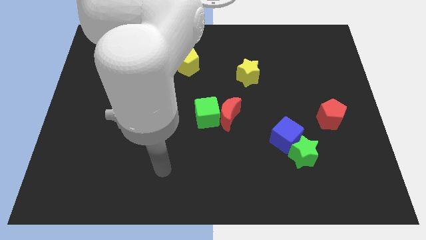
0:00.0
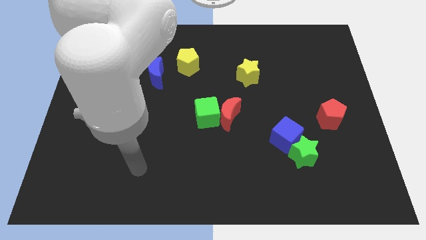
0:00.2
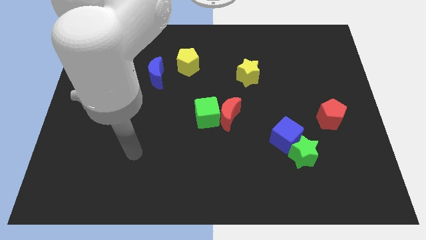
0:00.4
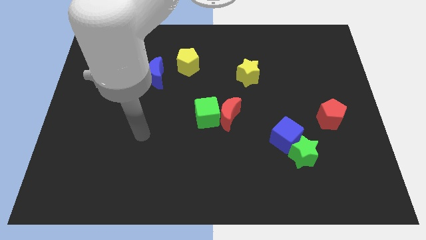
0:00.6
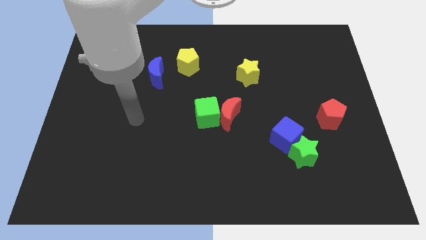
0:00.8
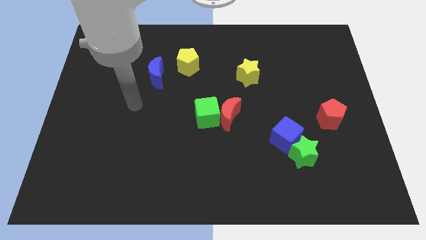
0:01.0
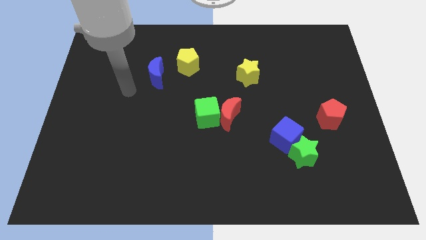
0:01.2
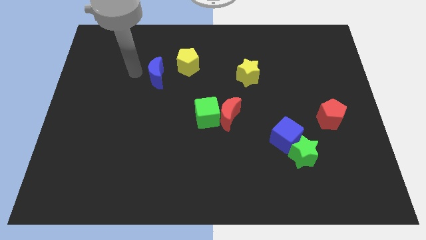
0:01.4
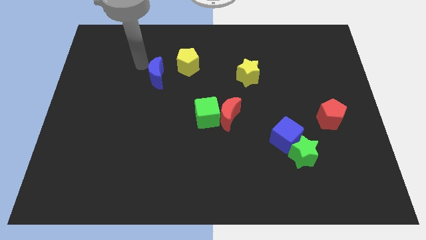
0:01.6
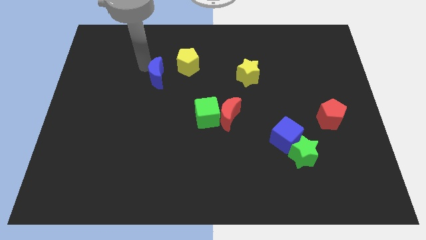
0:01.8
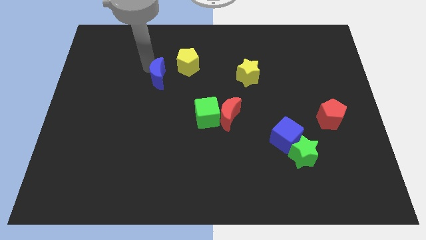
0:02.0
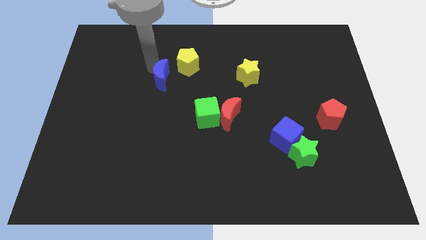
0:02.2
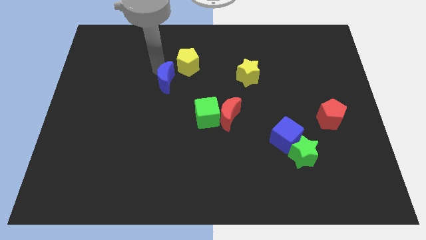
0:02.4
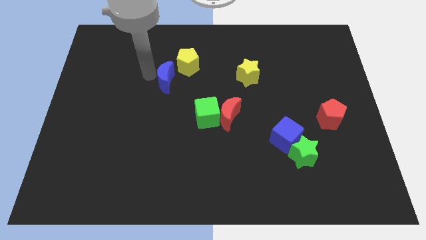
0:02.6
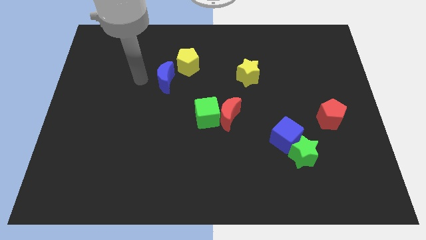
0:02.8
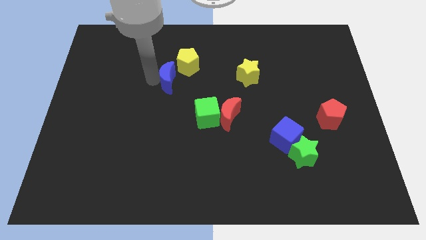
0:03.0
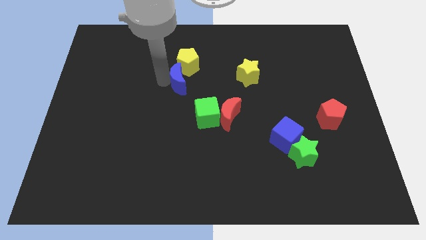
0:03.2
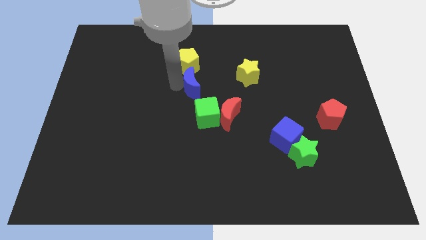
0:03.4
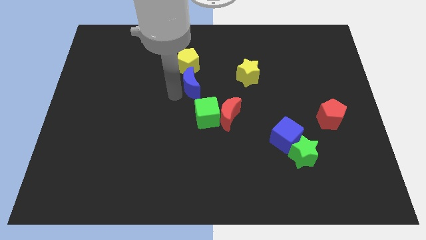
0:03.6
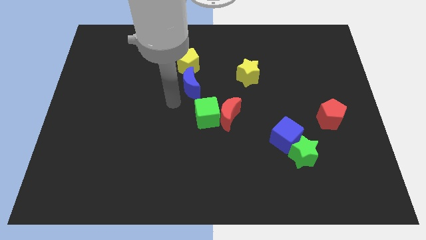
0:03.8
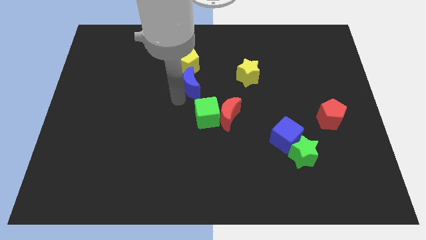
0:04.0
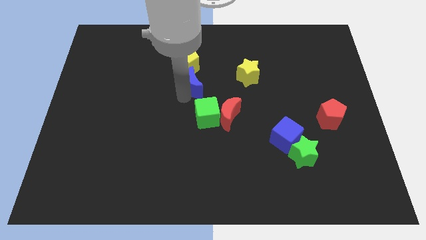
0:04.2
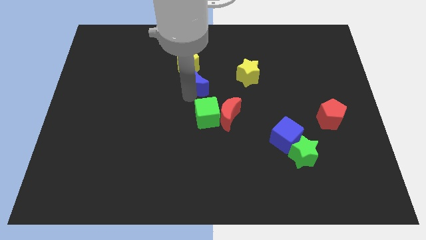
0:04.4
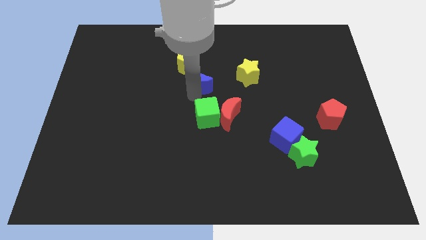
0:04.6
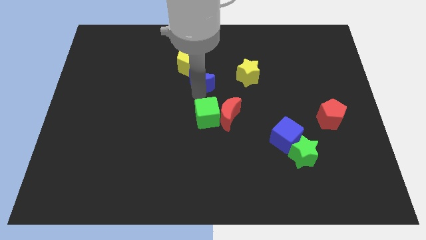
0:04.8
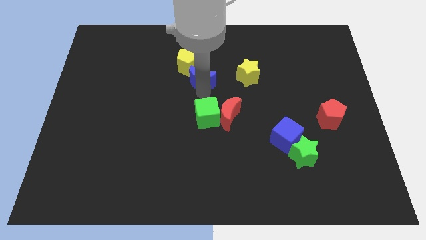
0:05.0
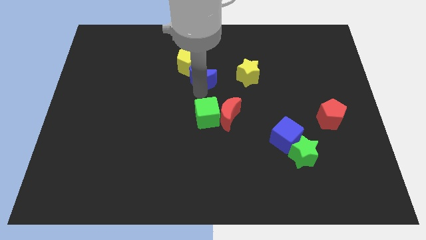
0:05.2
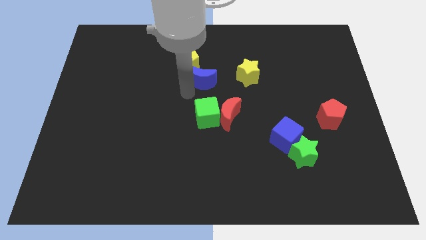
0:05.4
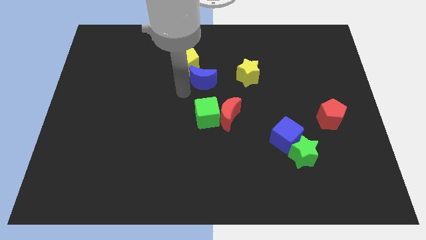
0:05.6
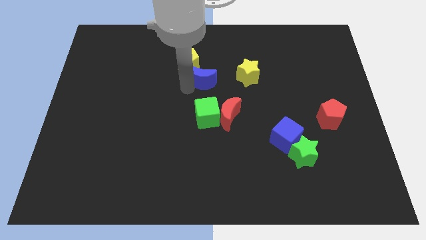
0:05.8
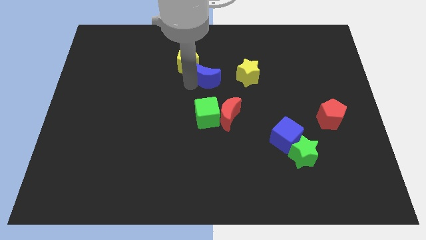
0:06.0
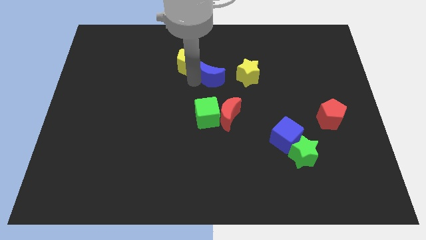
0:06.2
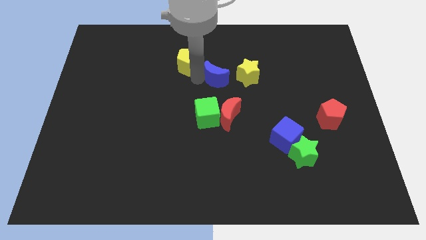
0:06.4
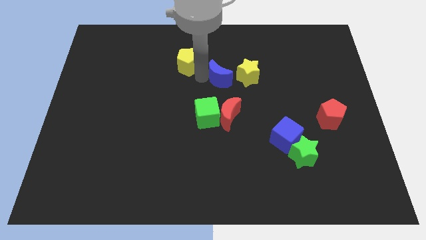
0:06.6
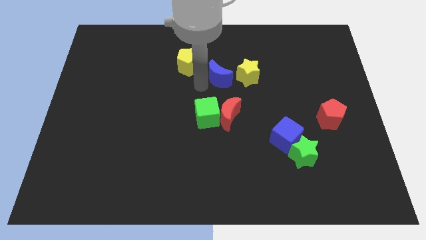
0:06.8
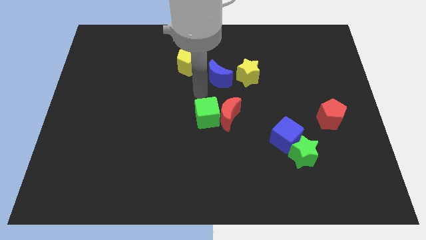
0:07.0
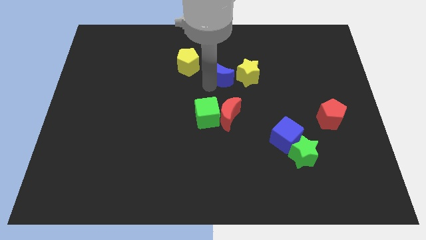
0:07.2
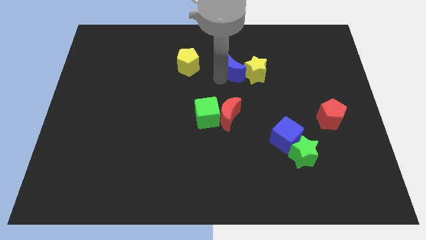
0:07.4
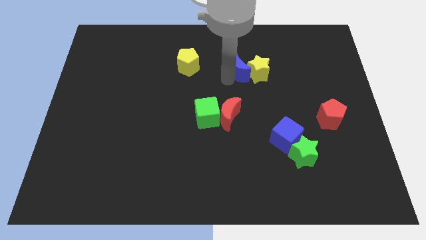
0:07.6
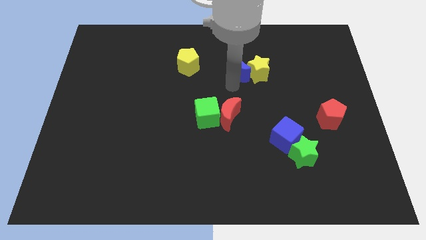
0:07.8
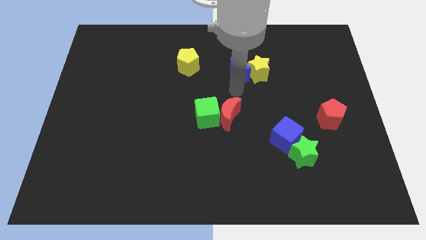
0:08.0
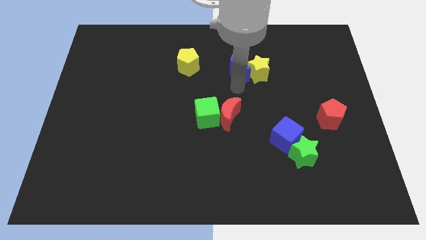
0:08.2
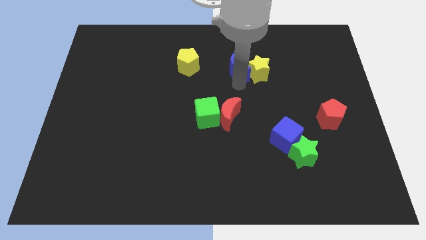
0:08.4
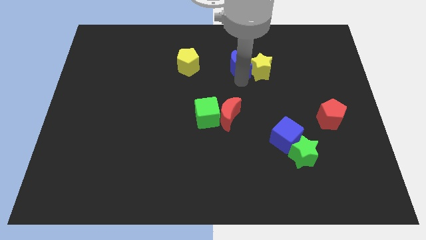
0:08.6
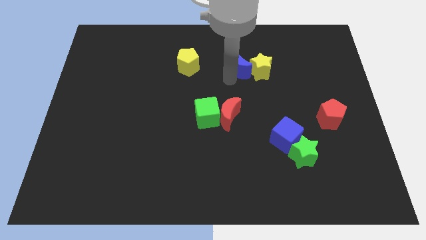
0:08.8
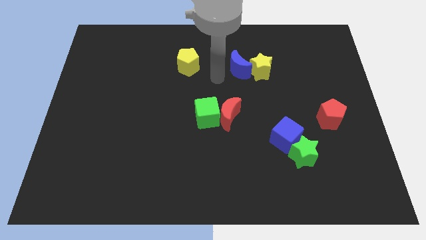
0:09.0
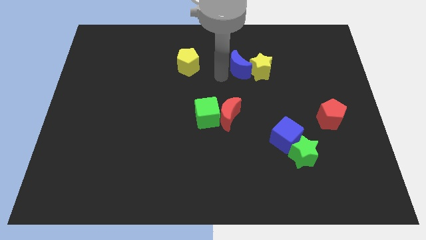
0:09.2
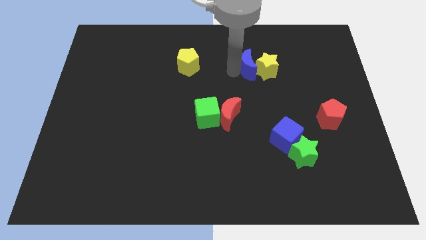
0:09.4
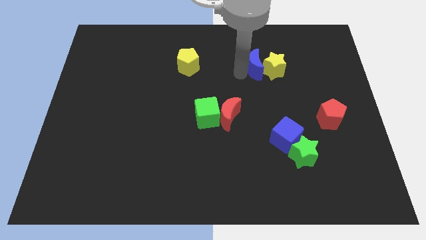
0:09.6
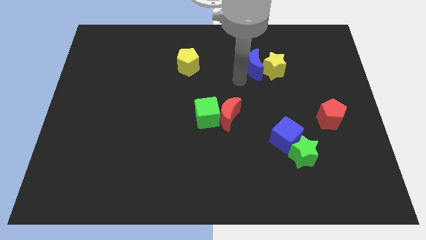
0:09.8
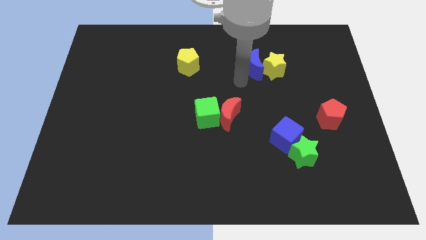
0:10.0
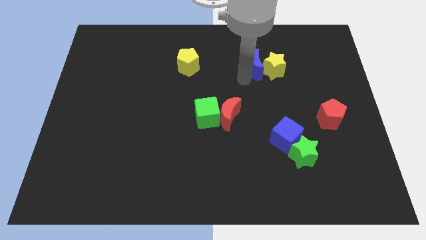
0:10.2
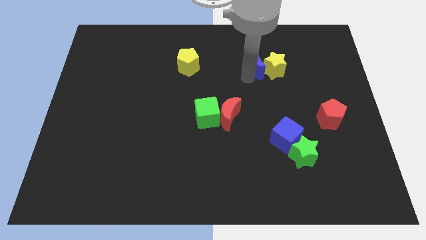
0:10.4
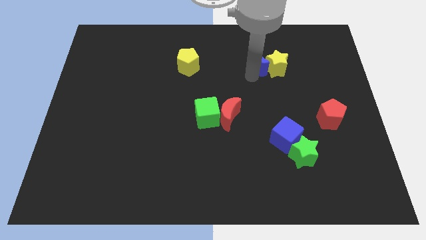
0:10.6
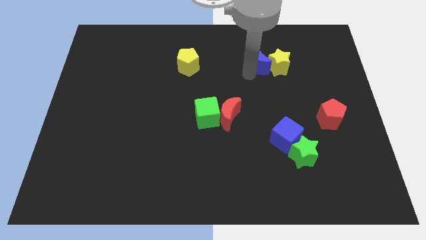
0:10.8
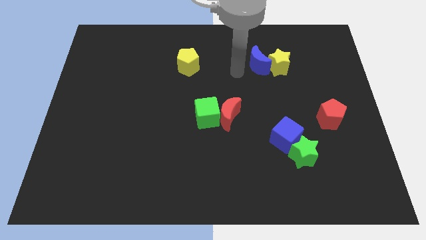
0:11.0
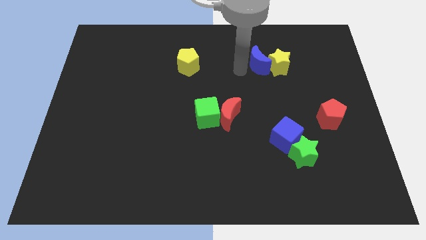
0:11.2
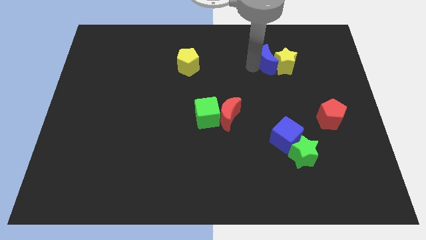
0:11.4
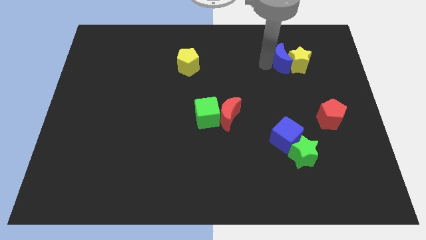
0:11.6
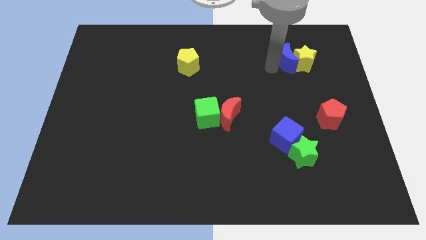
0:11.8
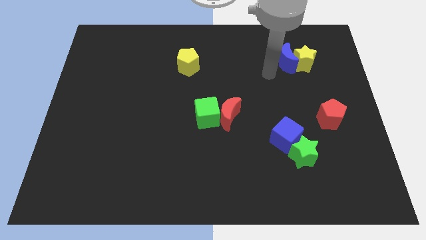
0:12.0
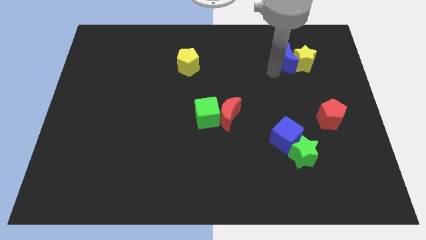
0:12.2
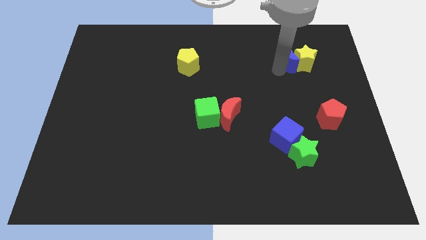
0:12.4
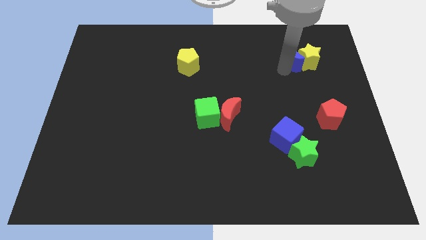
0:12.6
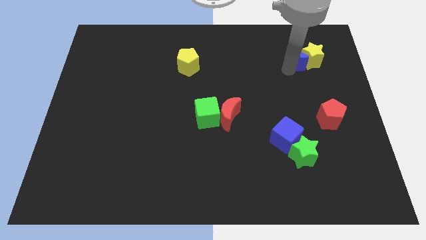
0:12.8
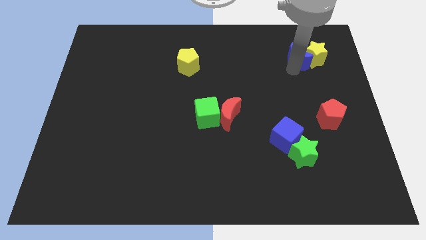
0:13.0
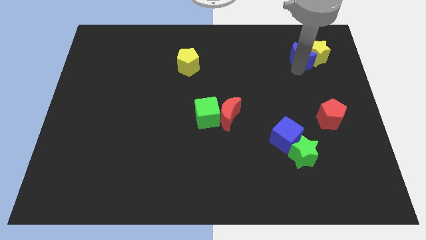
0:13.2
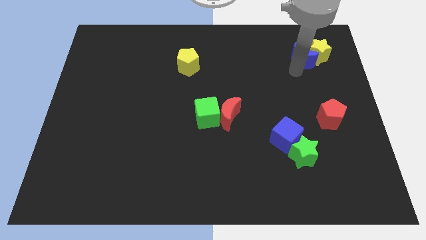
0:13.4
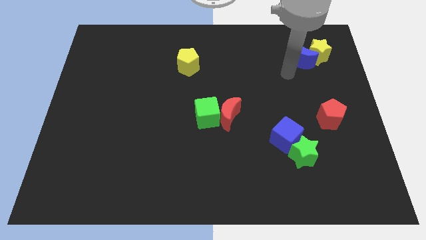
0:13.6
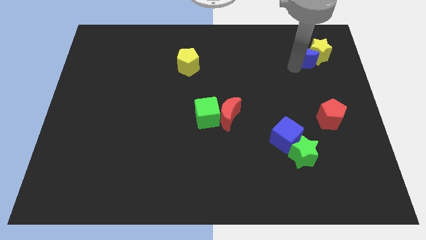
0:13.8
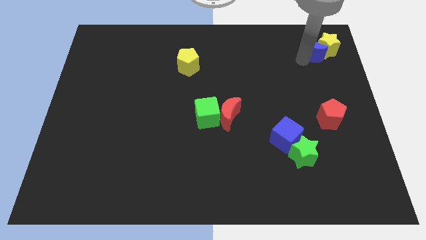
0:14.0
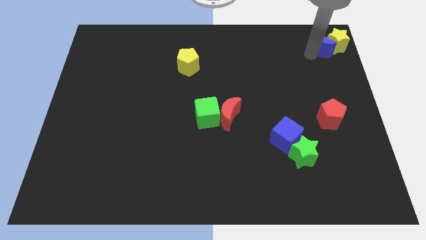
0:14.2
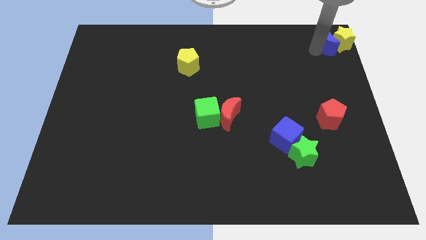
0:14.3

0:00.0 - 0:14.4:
slide the blue moon to the upper right corner
